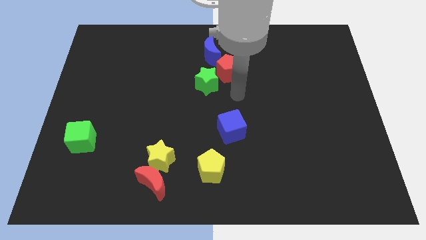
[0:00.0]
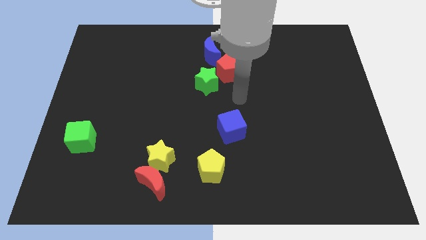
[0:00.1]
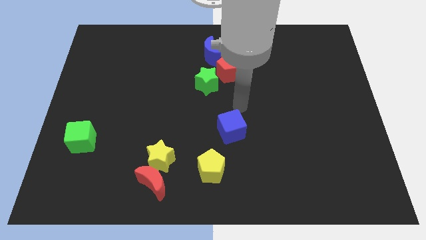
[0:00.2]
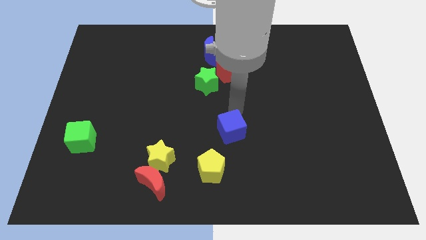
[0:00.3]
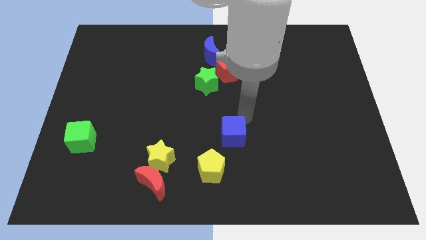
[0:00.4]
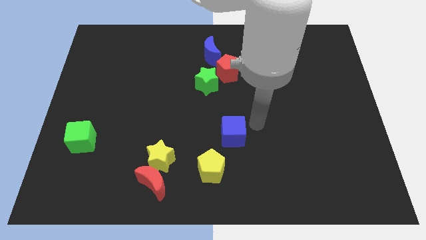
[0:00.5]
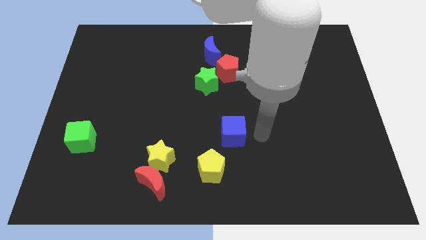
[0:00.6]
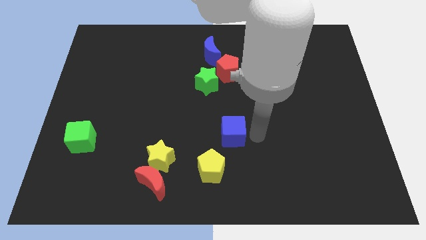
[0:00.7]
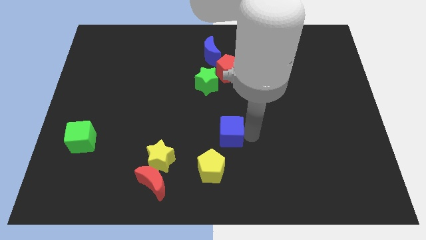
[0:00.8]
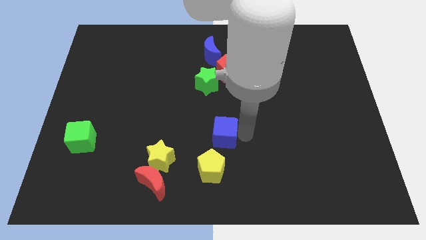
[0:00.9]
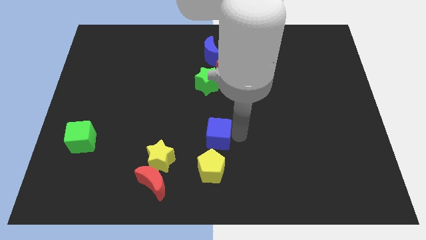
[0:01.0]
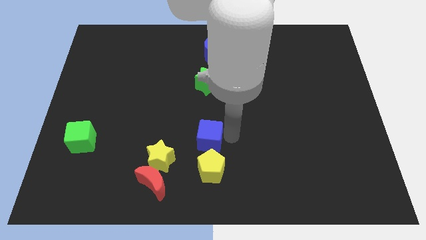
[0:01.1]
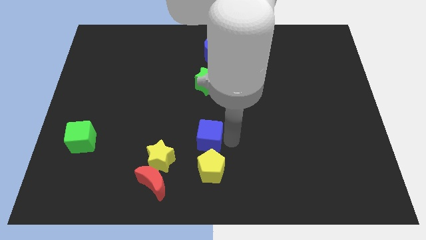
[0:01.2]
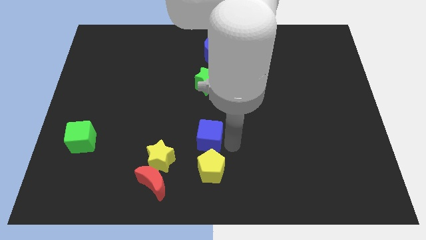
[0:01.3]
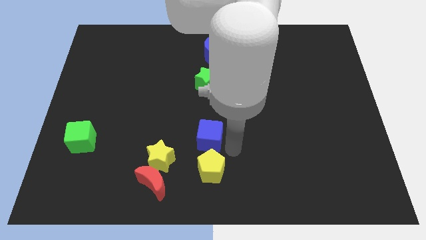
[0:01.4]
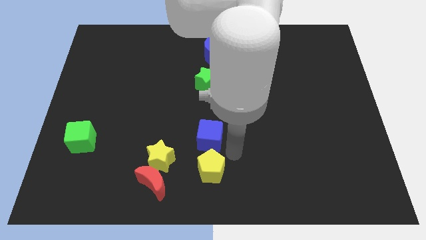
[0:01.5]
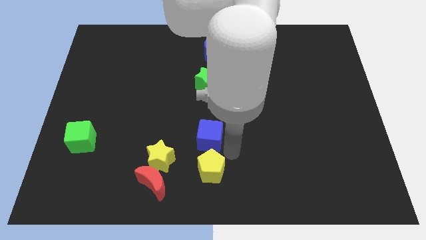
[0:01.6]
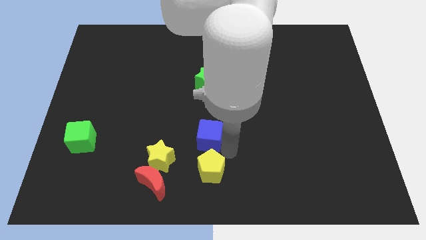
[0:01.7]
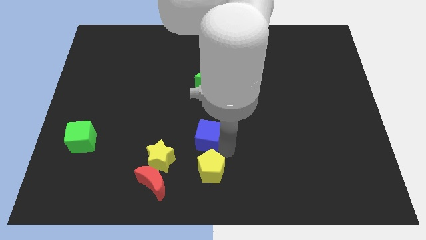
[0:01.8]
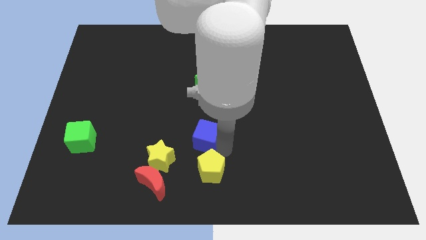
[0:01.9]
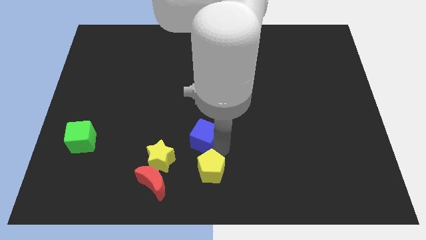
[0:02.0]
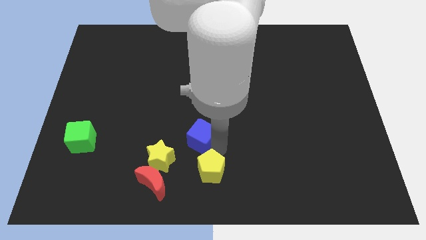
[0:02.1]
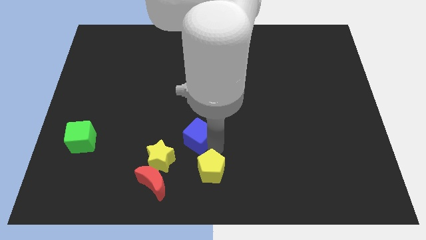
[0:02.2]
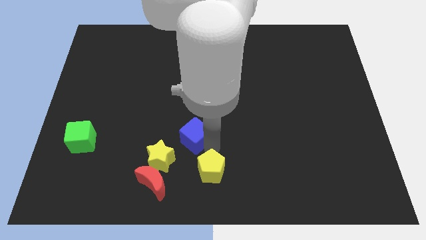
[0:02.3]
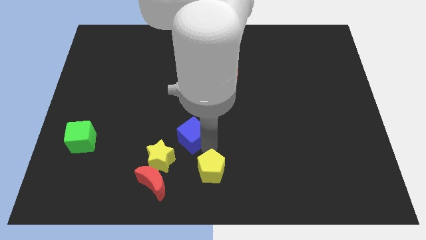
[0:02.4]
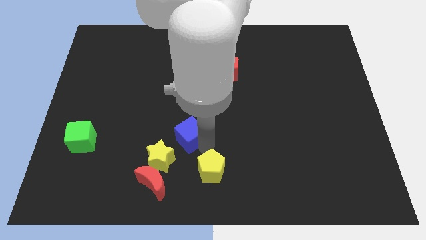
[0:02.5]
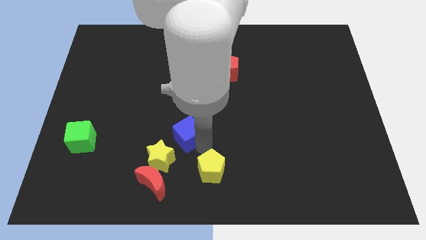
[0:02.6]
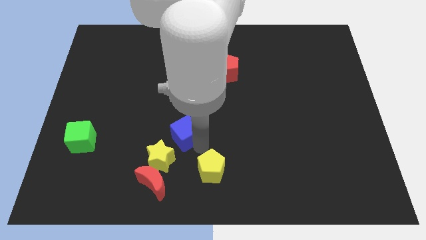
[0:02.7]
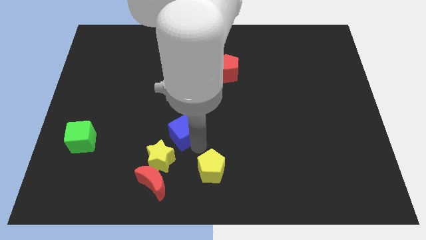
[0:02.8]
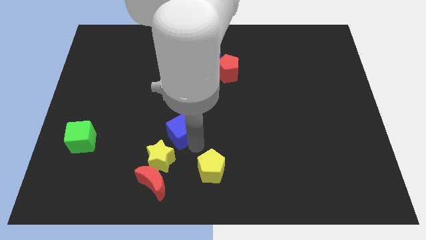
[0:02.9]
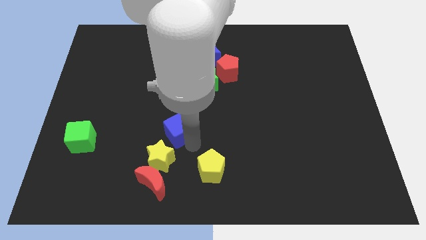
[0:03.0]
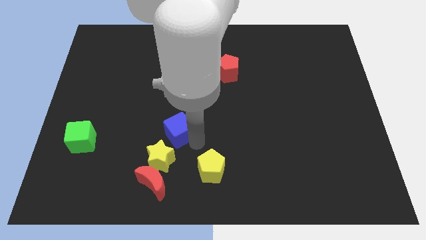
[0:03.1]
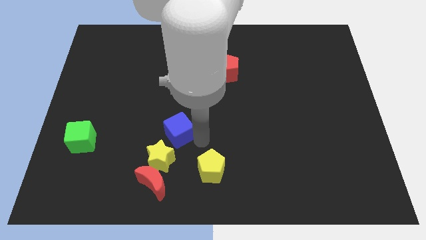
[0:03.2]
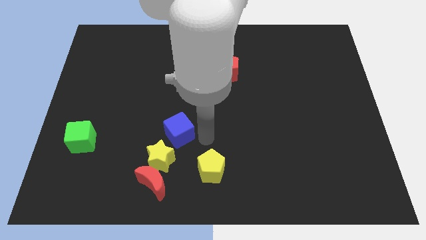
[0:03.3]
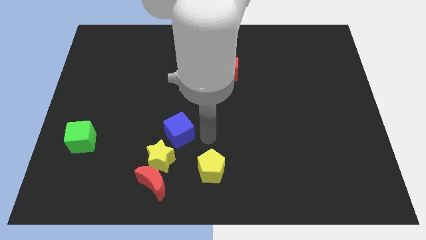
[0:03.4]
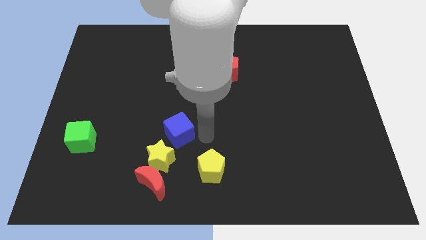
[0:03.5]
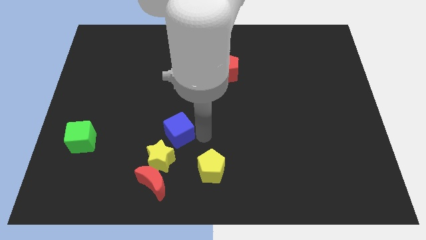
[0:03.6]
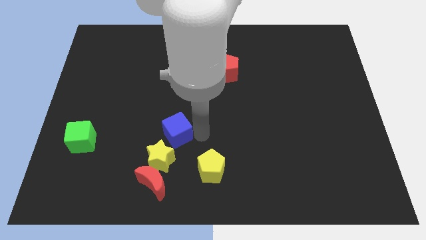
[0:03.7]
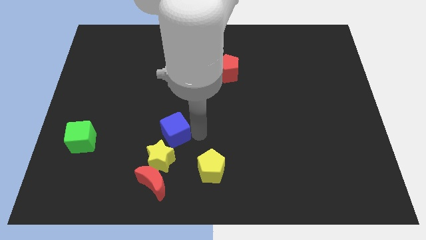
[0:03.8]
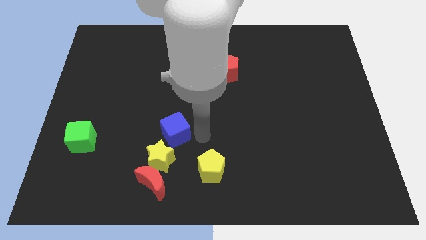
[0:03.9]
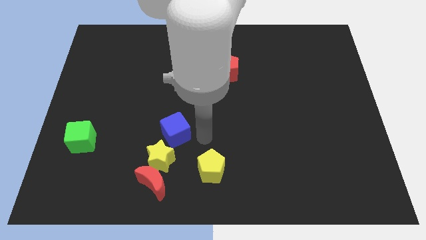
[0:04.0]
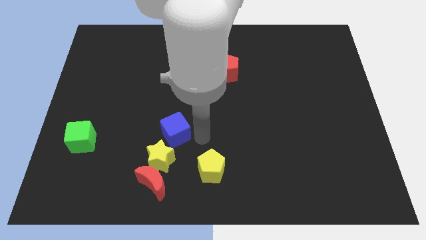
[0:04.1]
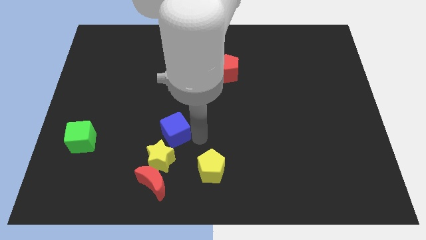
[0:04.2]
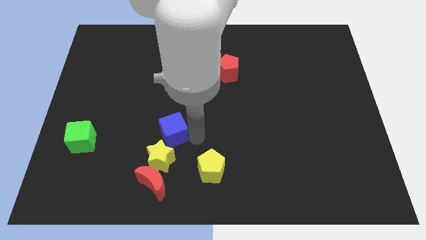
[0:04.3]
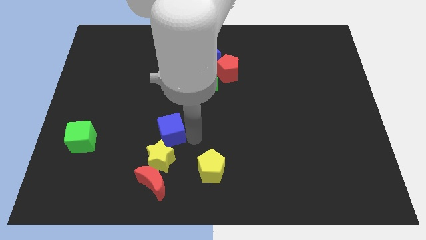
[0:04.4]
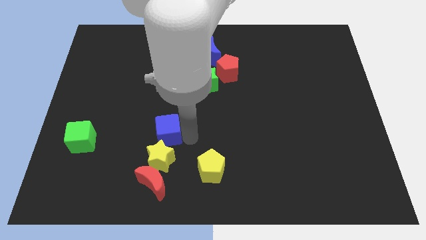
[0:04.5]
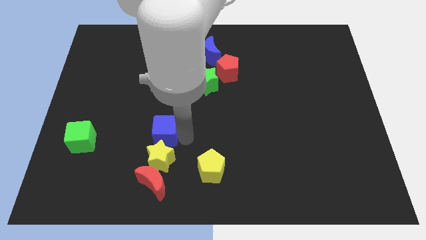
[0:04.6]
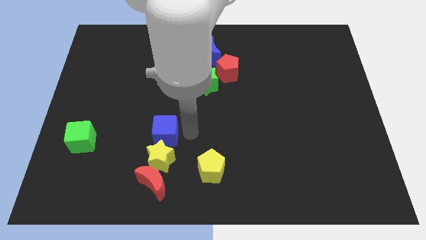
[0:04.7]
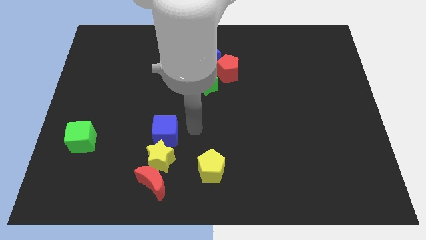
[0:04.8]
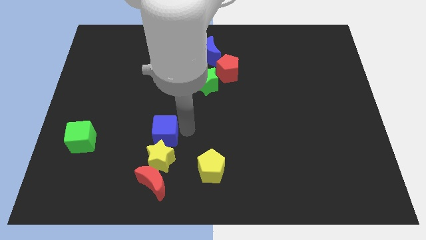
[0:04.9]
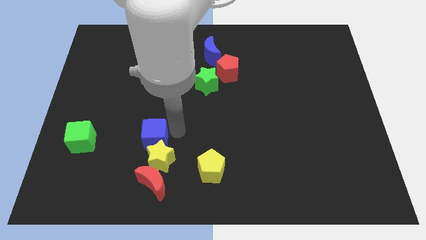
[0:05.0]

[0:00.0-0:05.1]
slide the blue cube right of the green cube

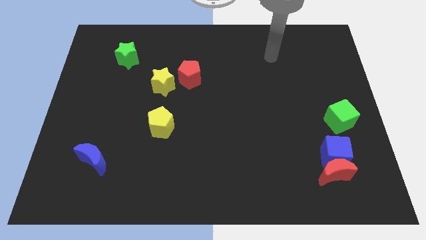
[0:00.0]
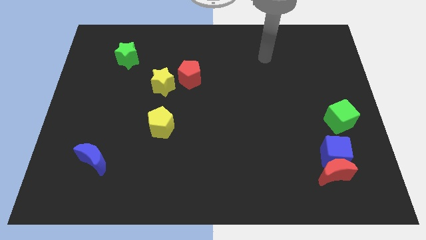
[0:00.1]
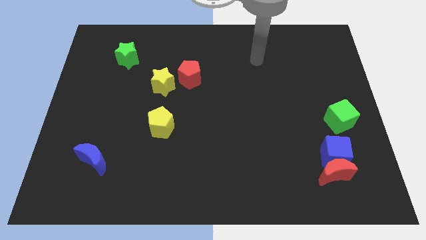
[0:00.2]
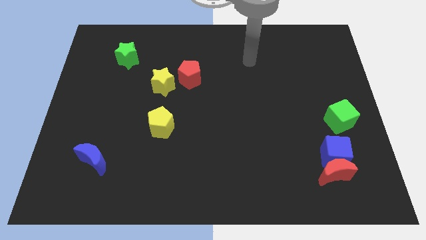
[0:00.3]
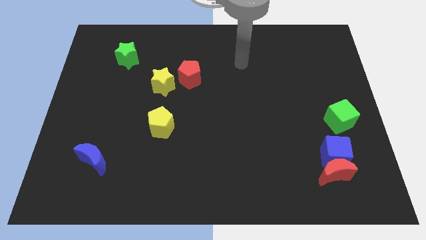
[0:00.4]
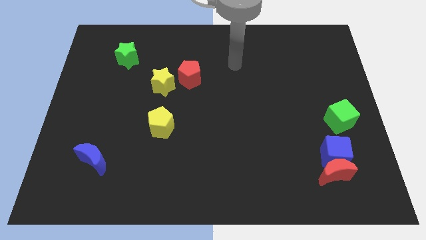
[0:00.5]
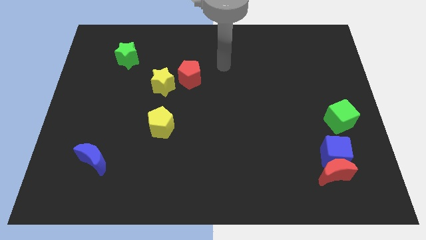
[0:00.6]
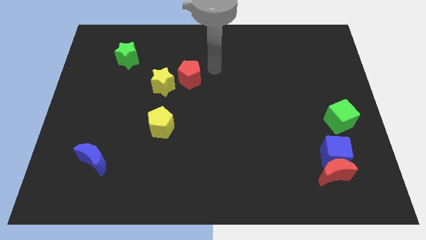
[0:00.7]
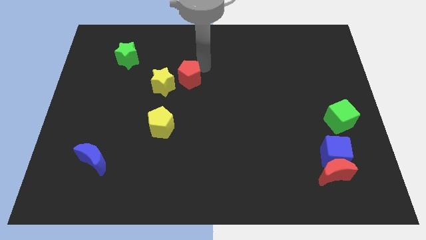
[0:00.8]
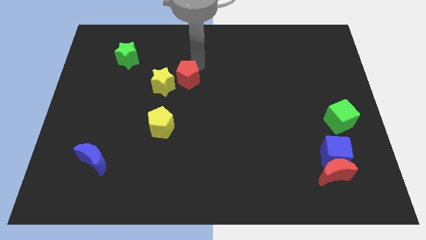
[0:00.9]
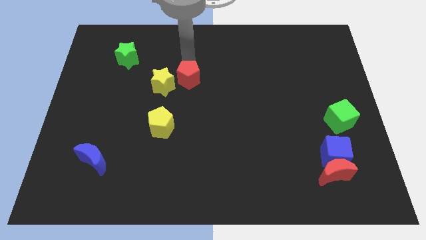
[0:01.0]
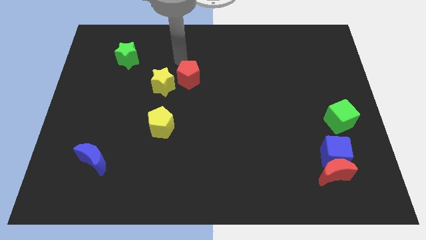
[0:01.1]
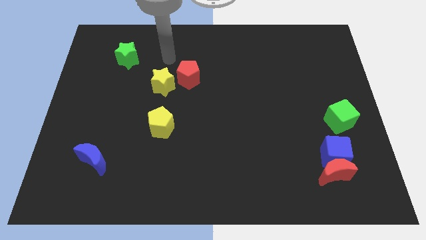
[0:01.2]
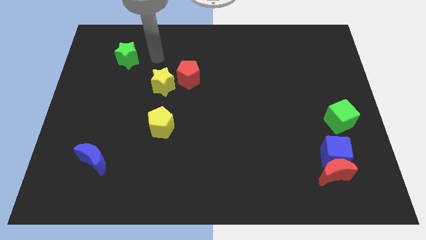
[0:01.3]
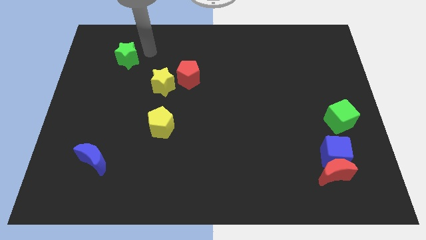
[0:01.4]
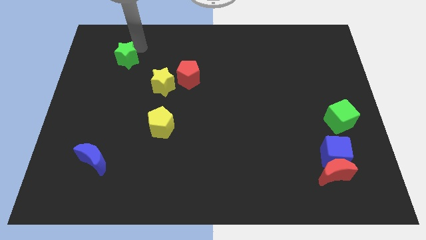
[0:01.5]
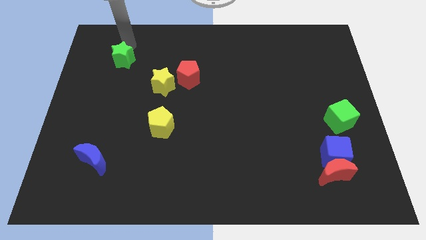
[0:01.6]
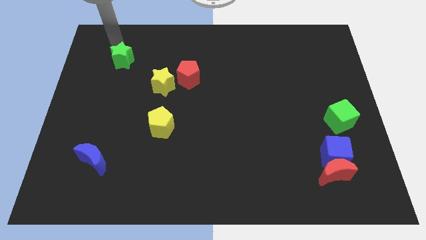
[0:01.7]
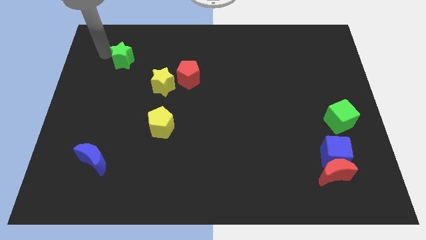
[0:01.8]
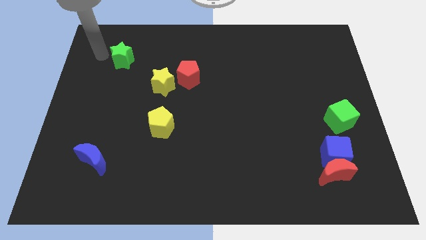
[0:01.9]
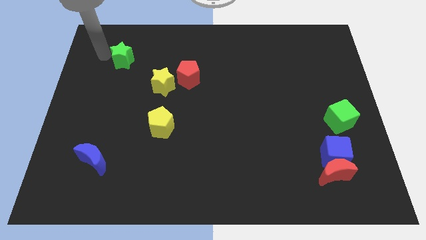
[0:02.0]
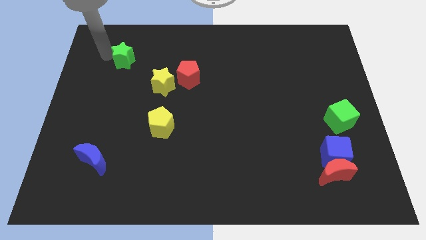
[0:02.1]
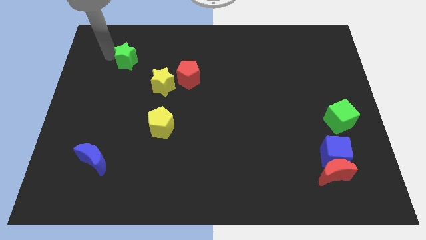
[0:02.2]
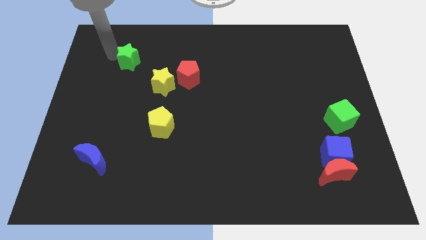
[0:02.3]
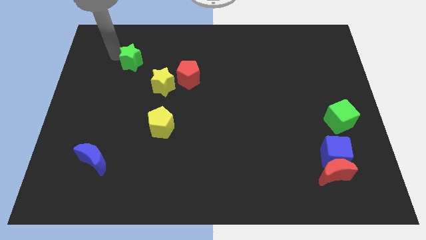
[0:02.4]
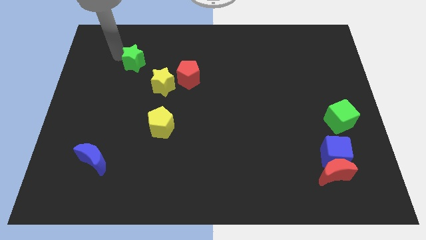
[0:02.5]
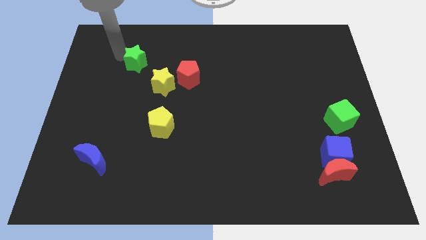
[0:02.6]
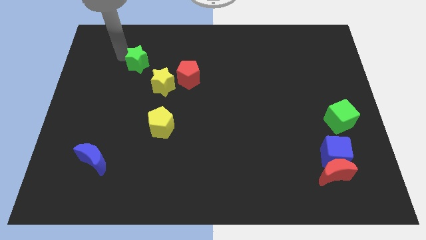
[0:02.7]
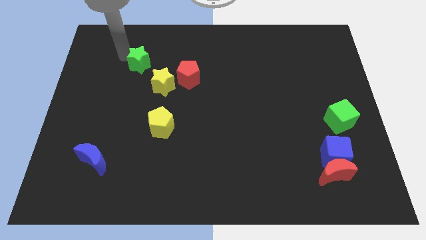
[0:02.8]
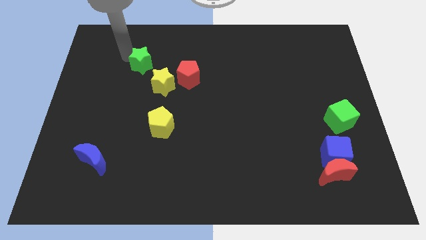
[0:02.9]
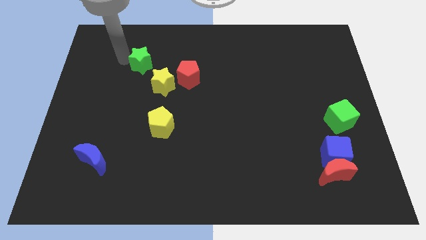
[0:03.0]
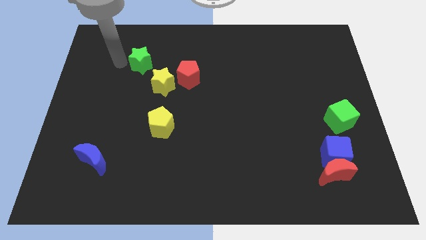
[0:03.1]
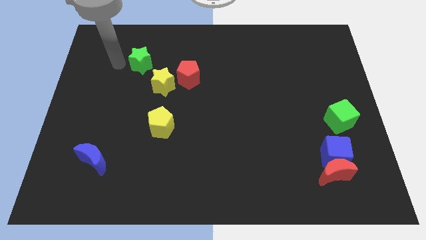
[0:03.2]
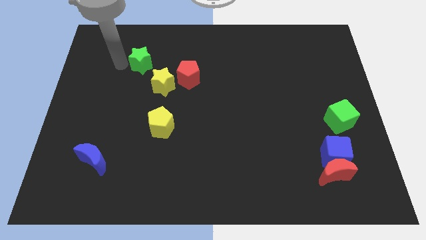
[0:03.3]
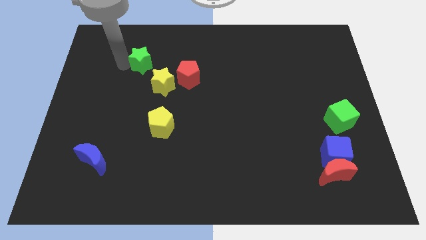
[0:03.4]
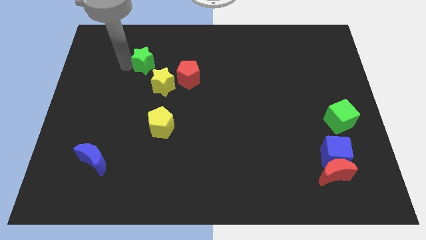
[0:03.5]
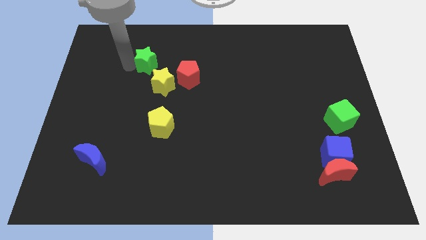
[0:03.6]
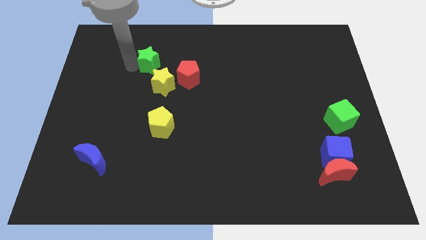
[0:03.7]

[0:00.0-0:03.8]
push the green star to the top left side of the red pentagon
